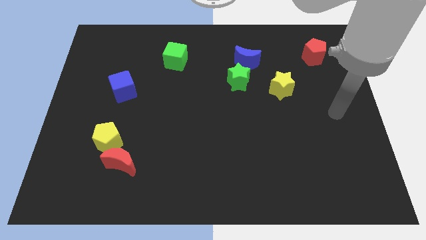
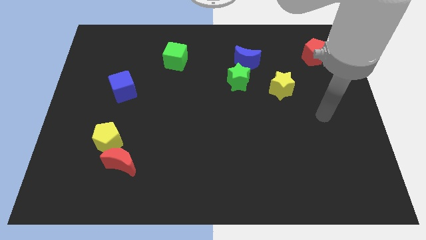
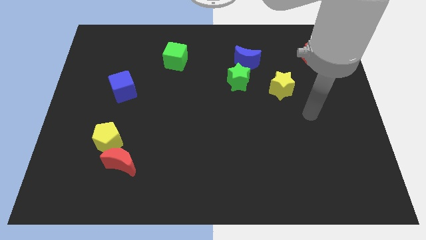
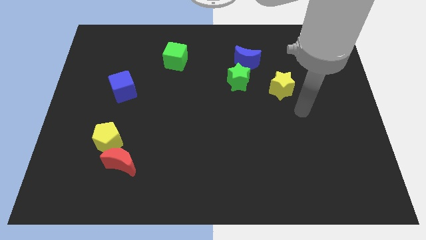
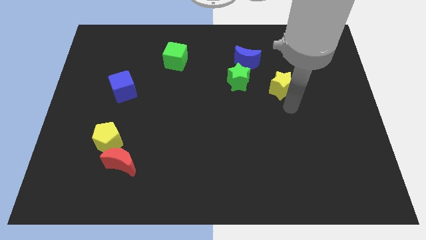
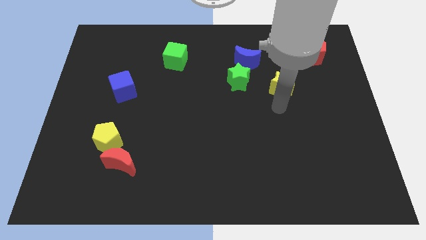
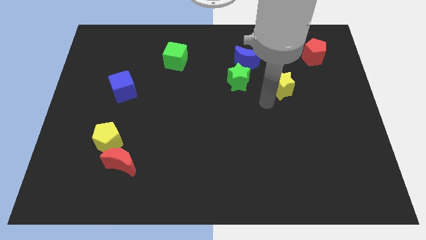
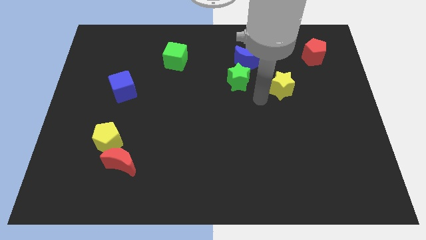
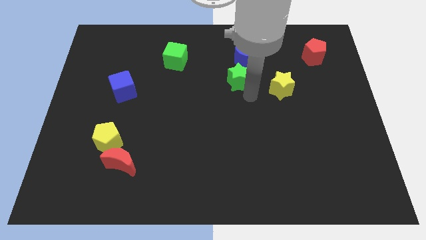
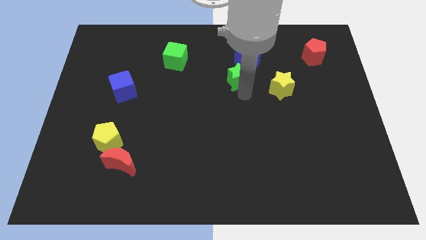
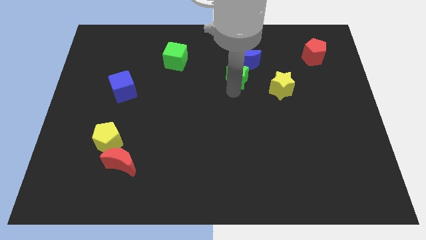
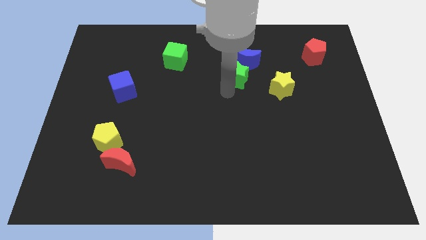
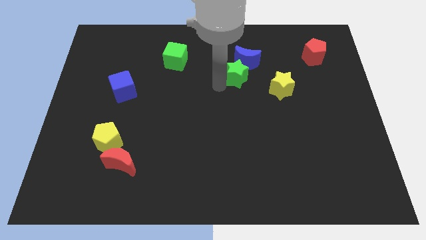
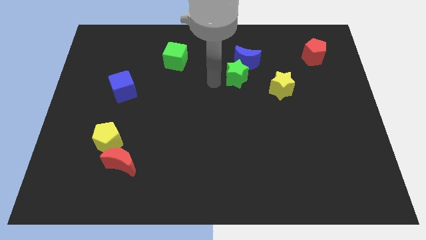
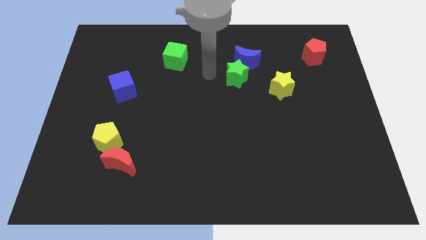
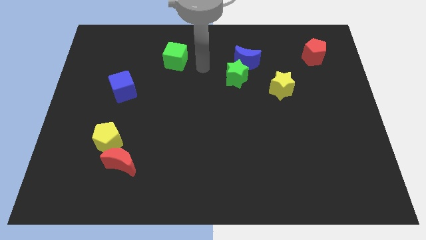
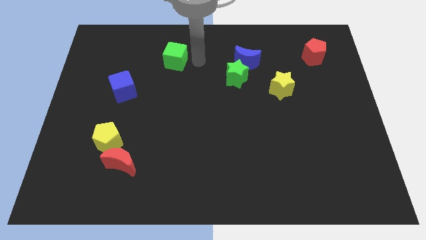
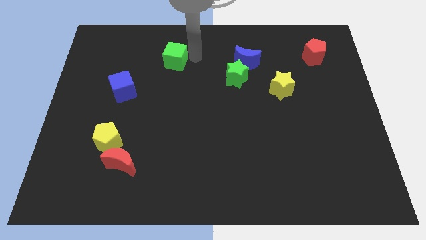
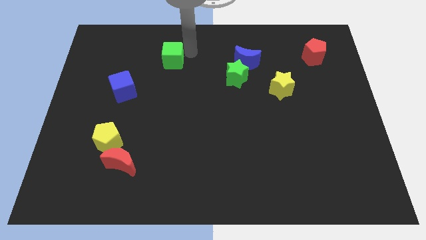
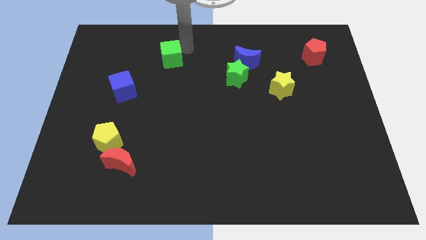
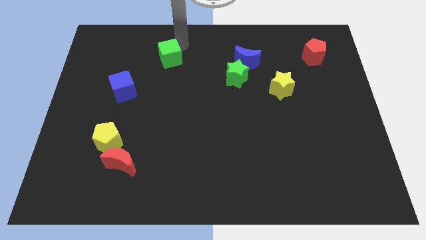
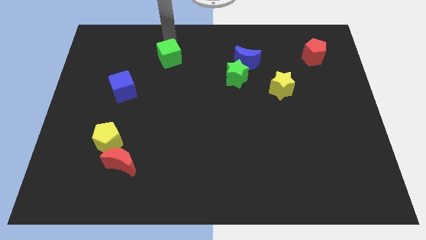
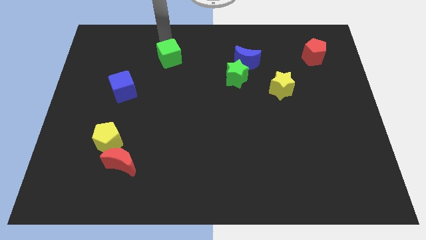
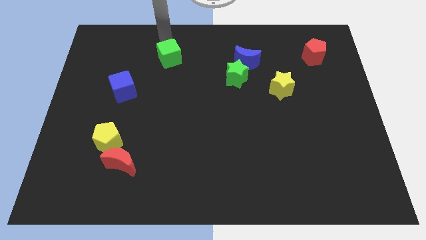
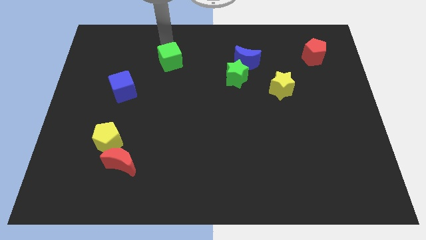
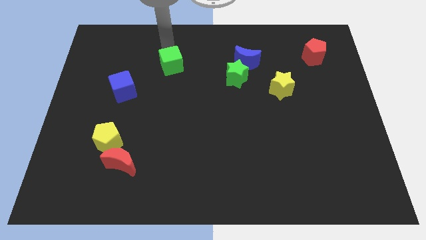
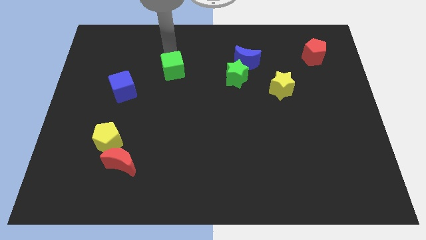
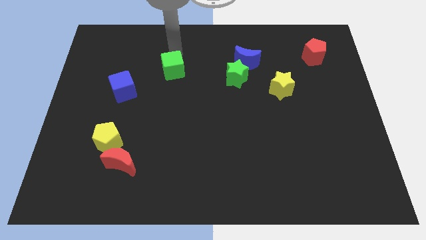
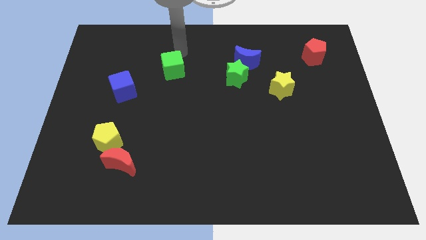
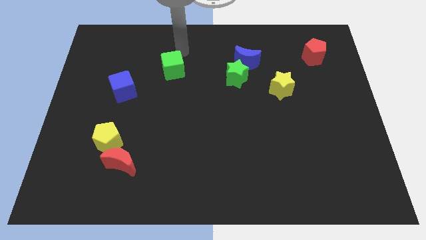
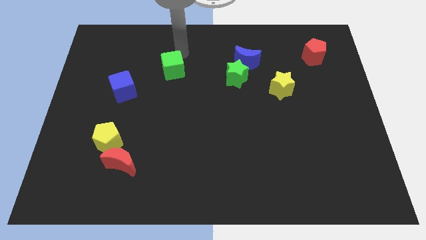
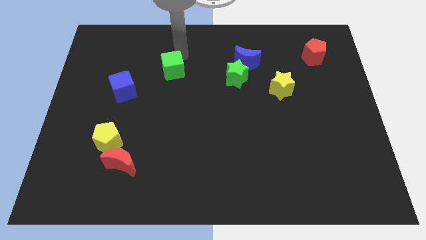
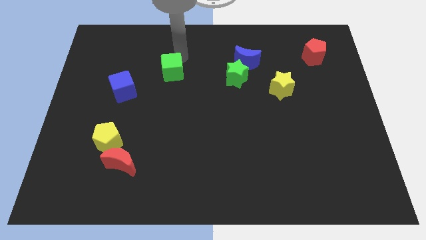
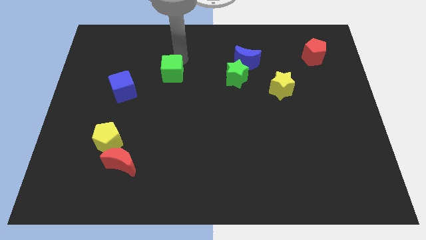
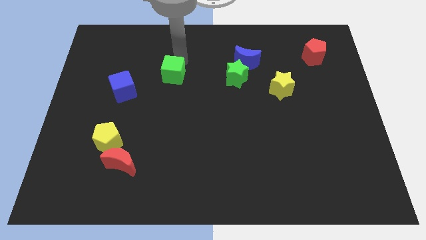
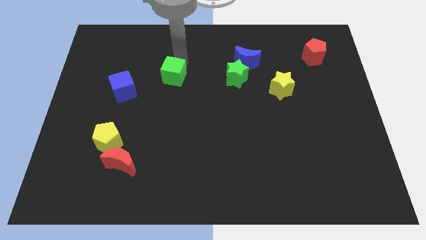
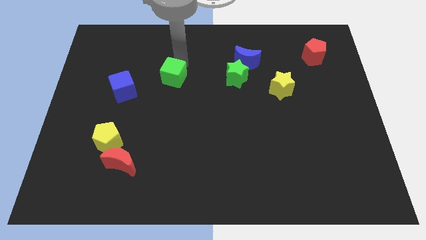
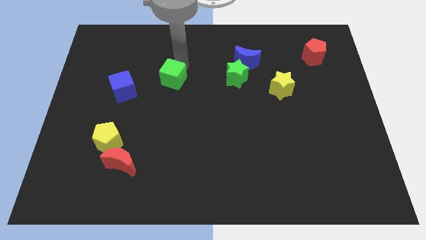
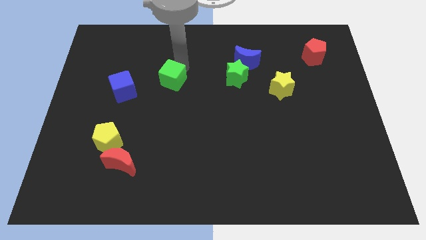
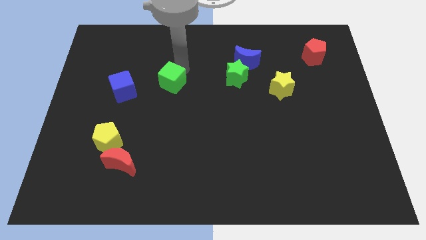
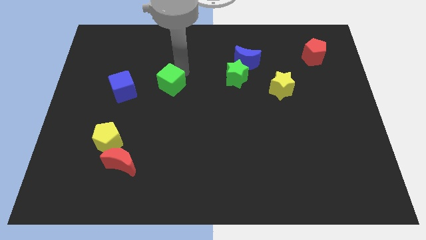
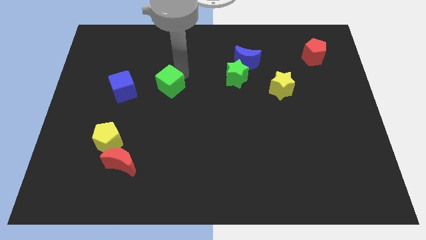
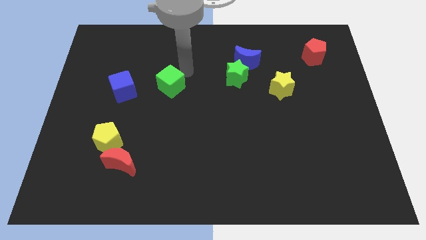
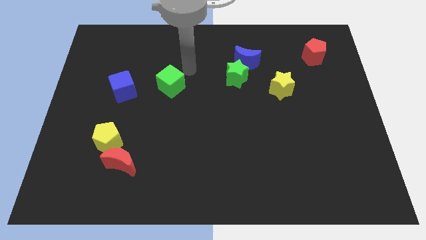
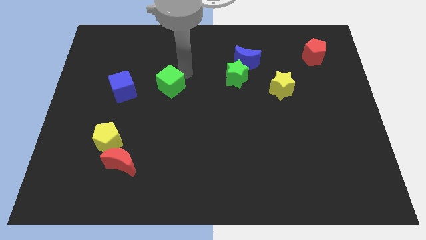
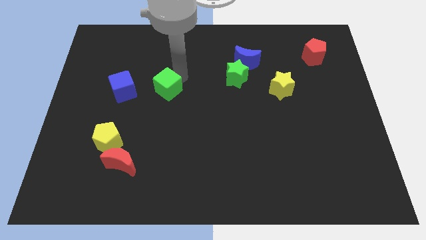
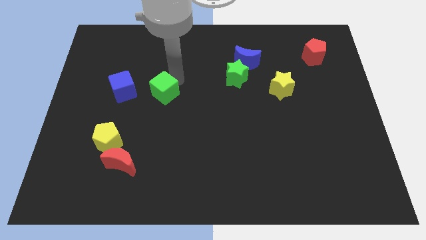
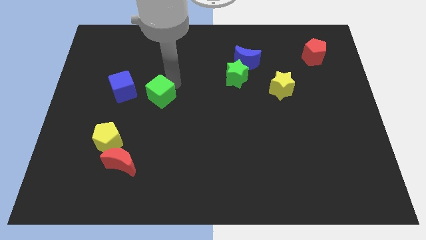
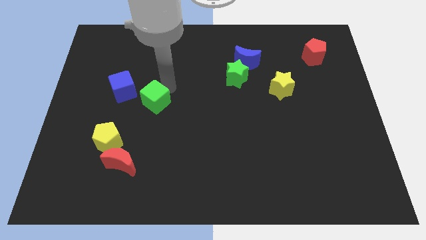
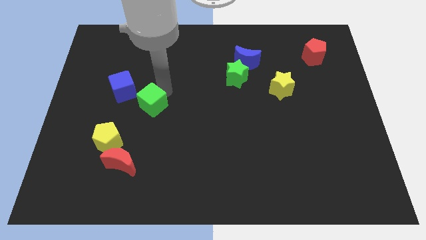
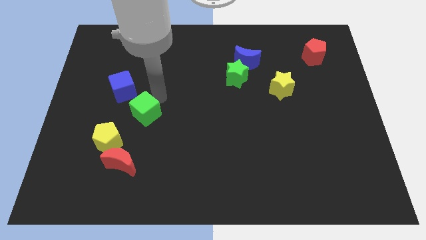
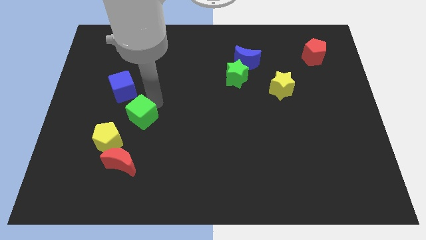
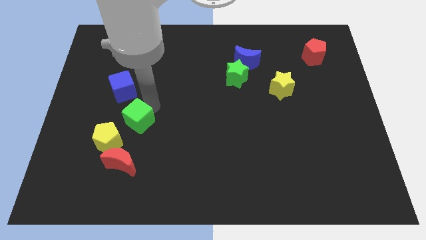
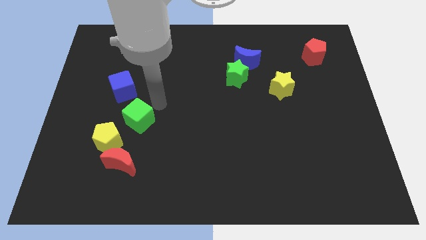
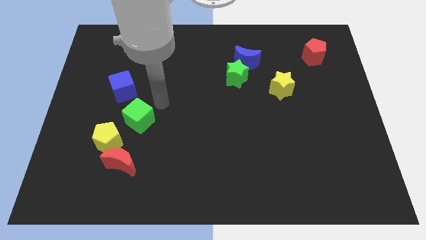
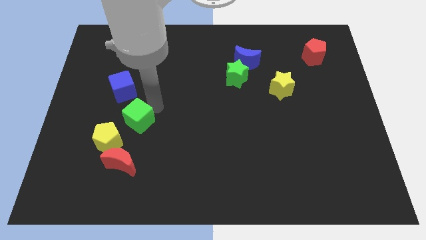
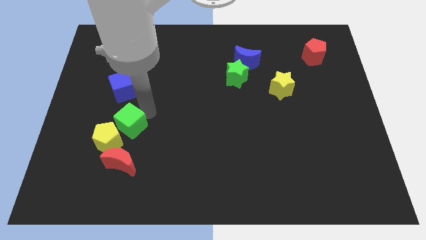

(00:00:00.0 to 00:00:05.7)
slide the green cube to the yellow pentagon

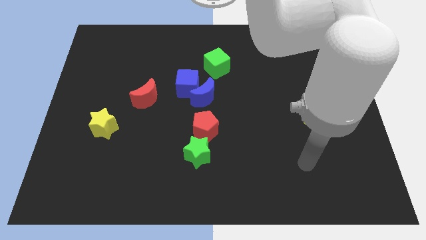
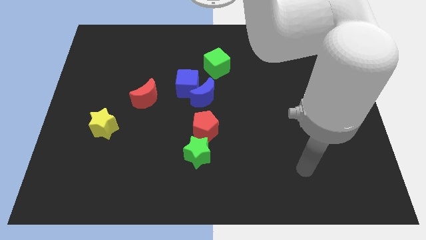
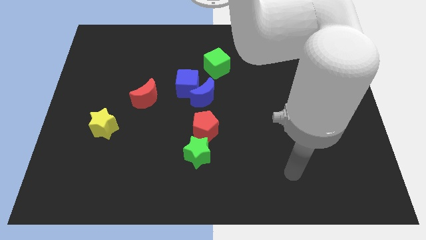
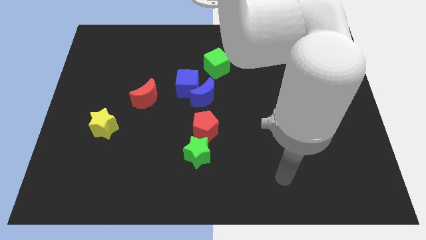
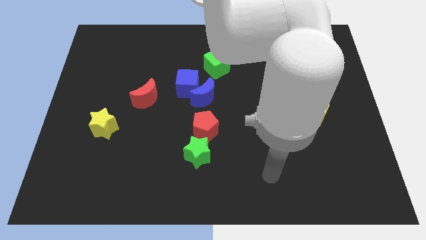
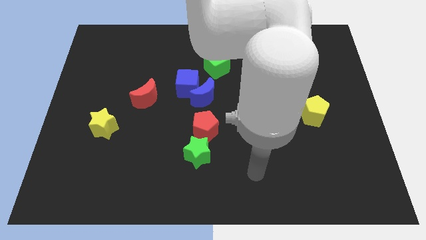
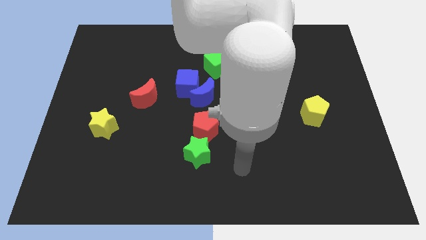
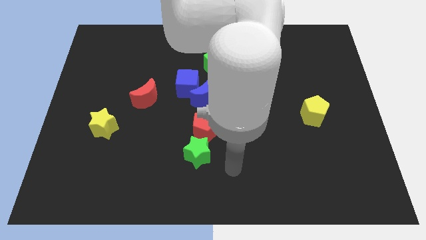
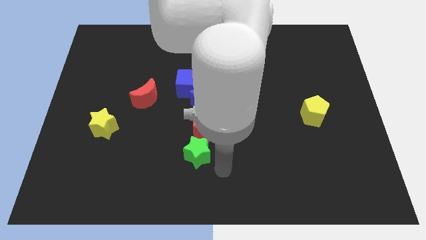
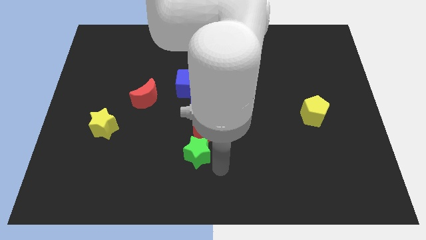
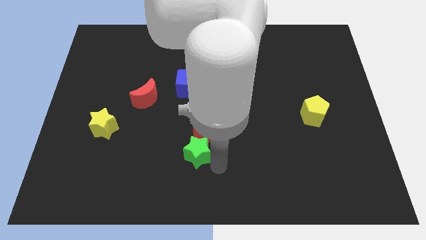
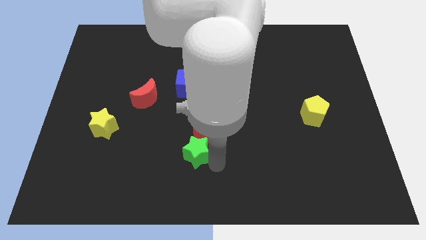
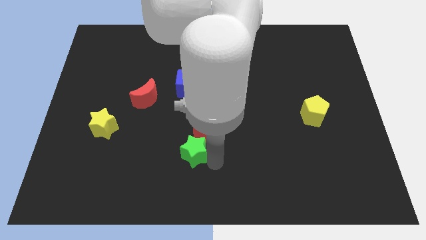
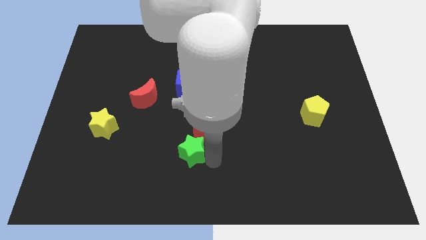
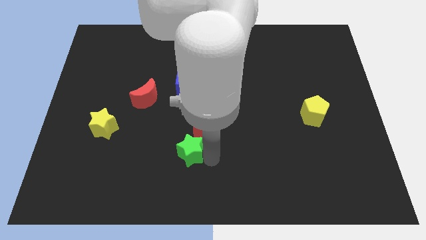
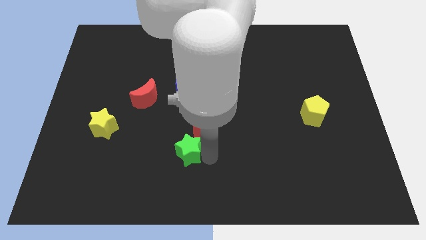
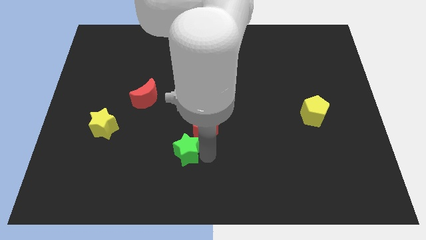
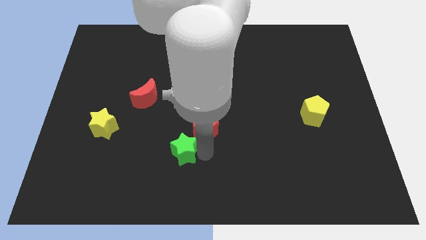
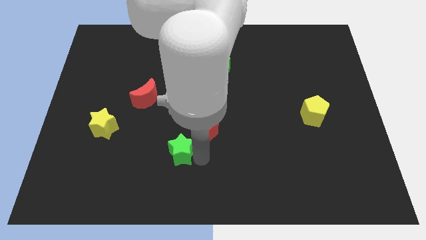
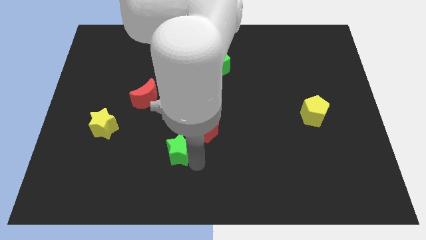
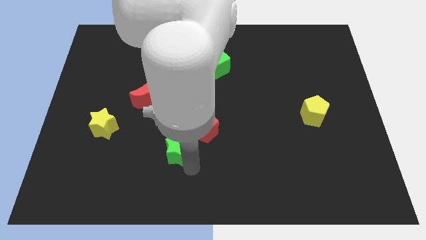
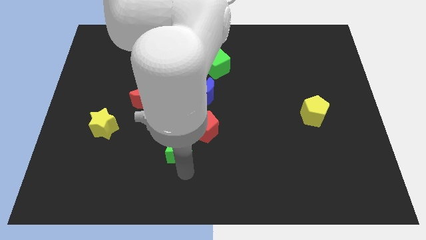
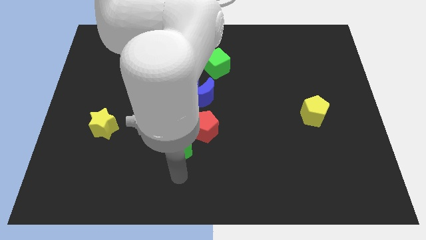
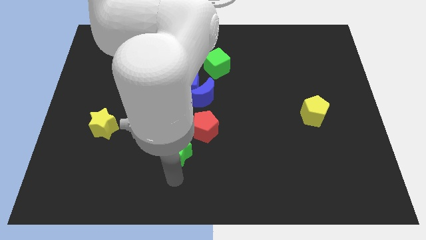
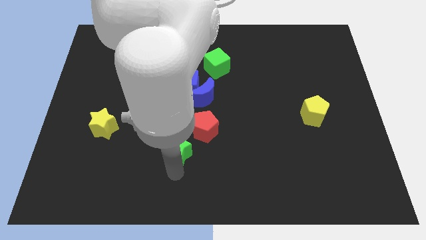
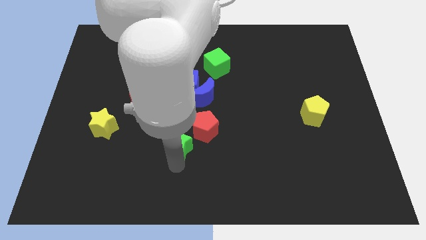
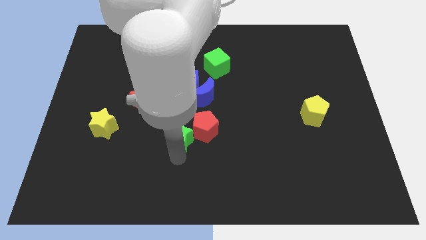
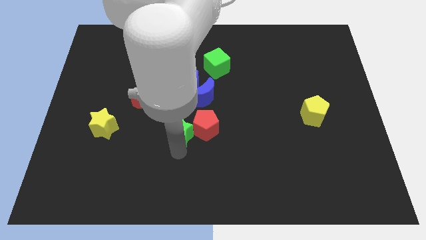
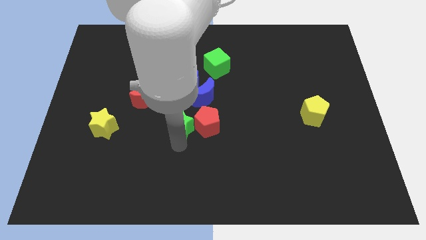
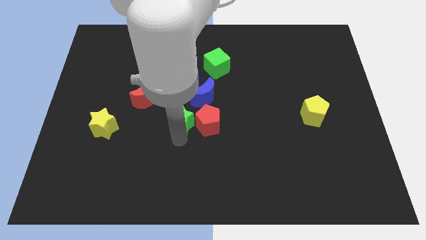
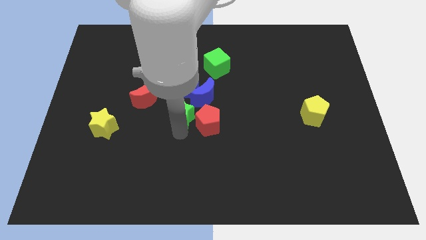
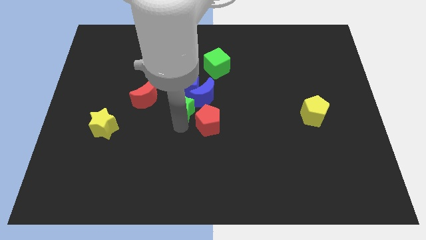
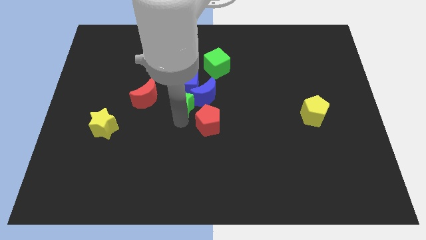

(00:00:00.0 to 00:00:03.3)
move the green star close to the blue cube
